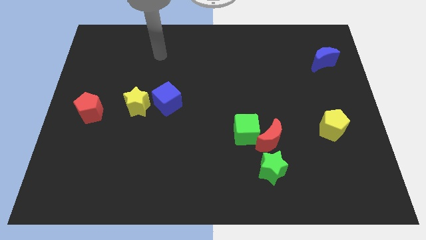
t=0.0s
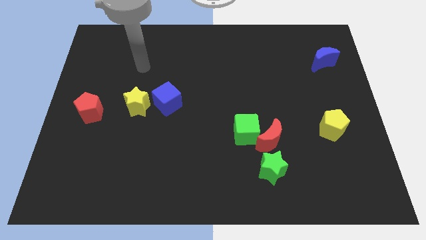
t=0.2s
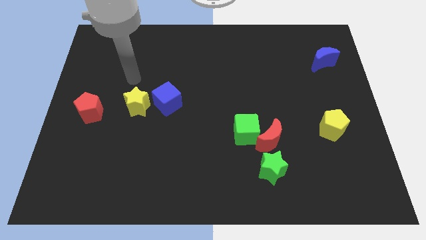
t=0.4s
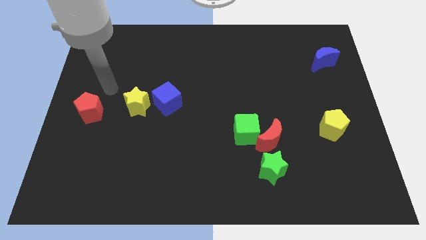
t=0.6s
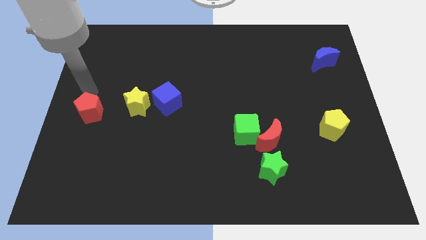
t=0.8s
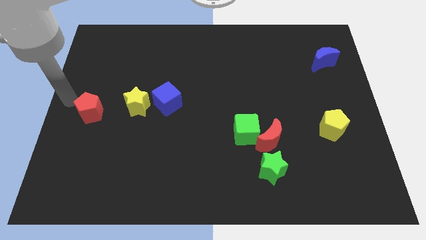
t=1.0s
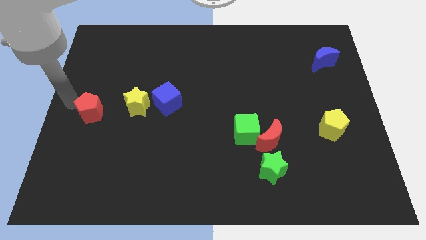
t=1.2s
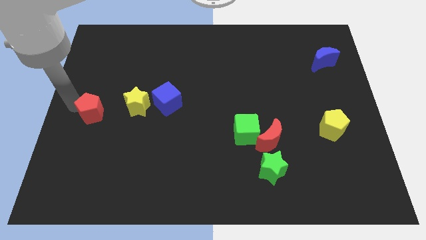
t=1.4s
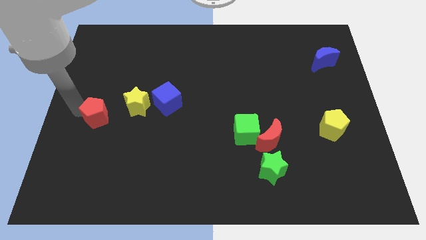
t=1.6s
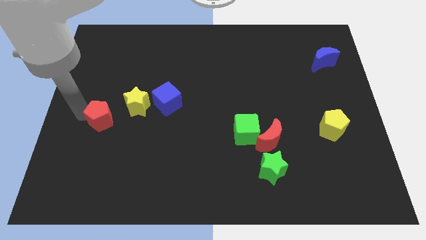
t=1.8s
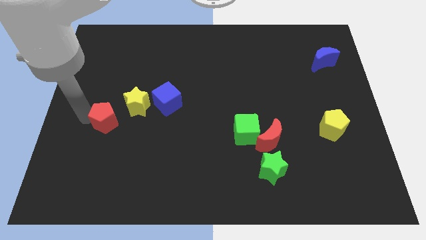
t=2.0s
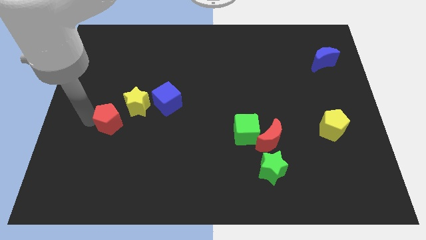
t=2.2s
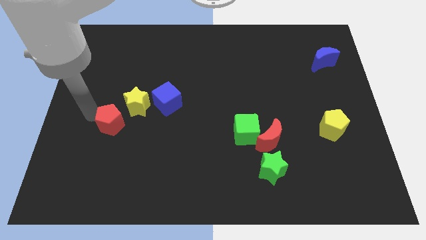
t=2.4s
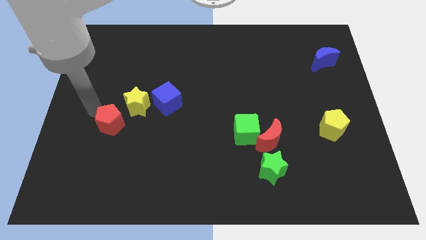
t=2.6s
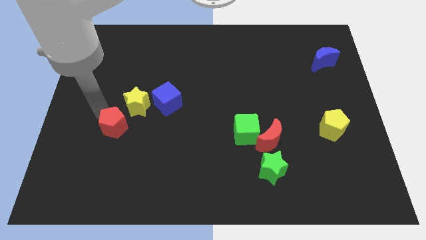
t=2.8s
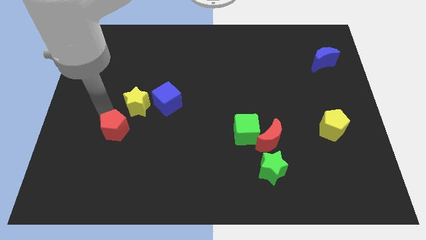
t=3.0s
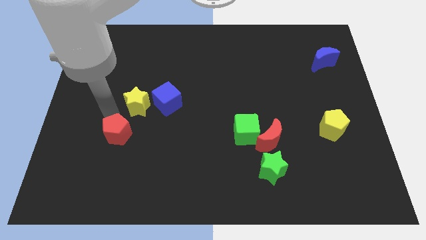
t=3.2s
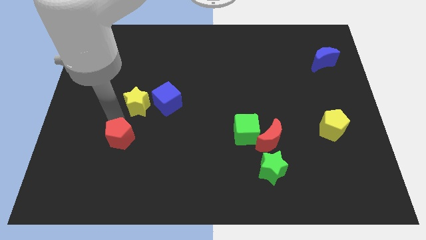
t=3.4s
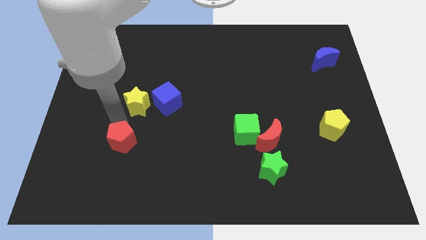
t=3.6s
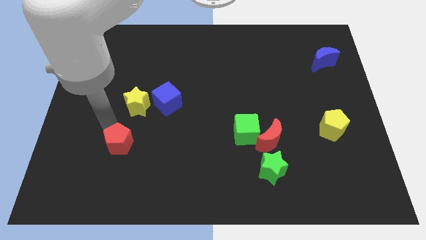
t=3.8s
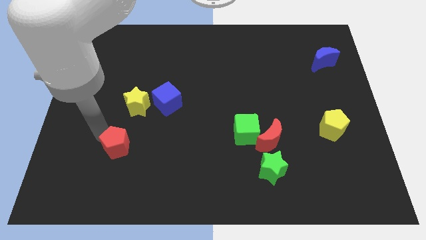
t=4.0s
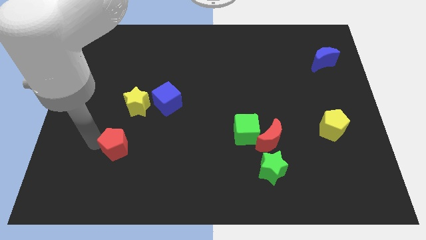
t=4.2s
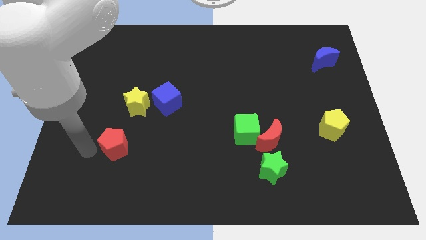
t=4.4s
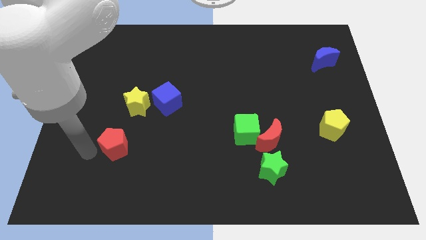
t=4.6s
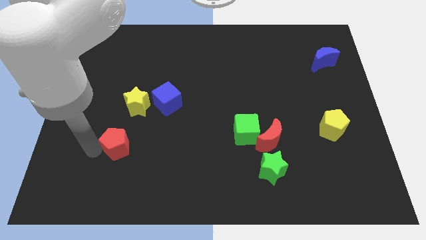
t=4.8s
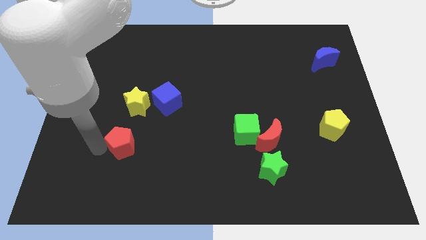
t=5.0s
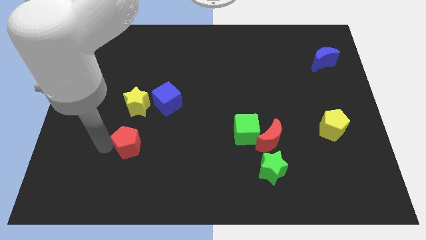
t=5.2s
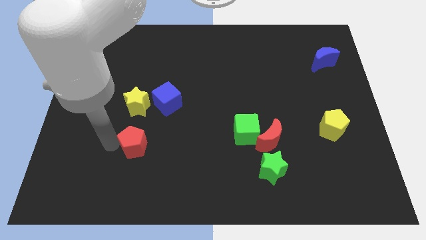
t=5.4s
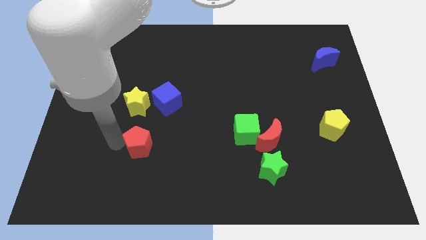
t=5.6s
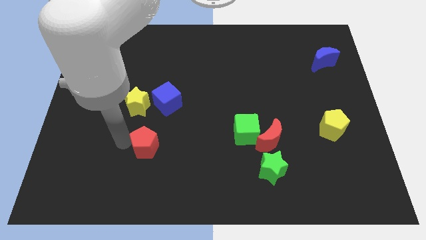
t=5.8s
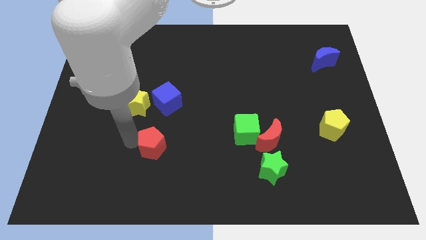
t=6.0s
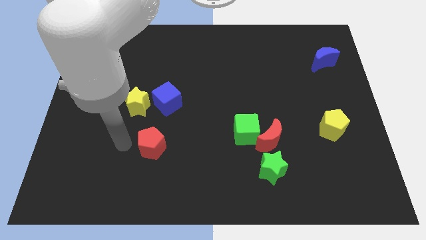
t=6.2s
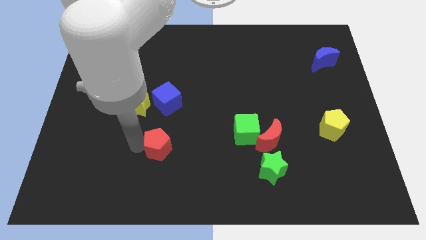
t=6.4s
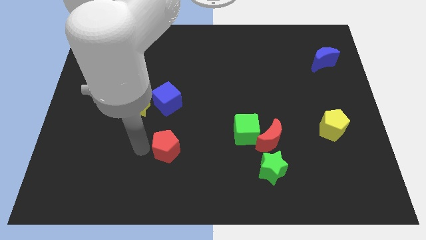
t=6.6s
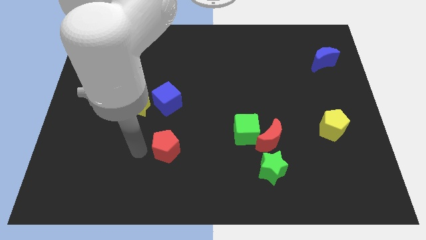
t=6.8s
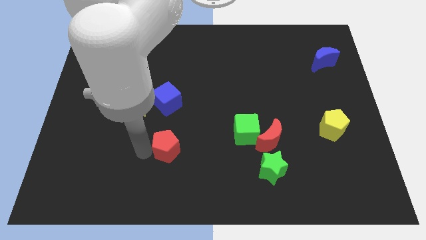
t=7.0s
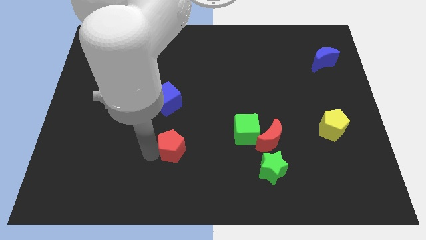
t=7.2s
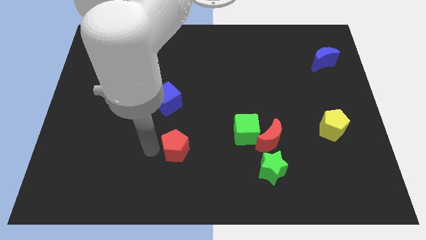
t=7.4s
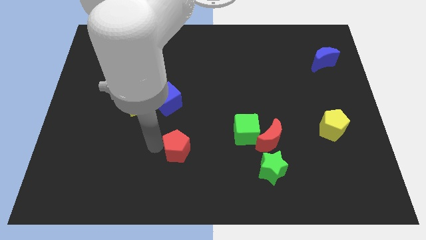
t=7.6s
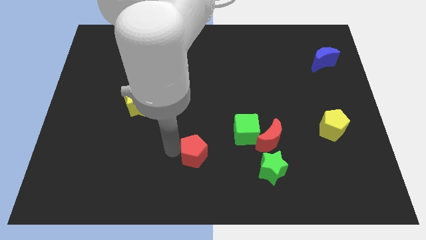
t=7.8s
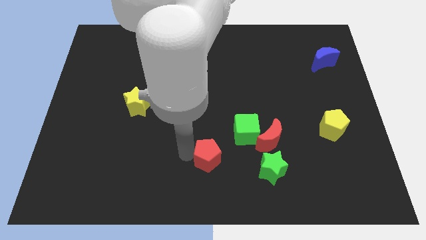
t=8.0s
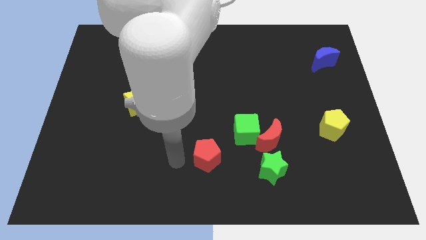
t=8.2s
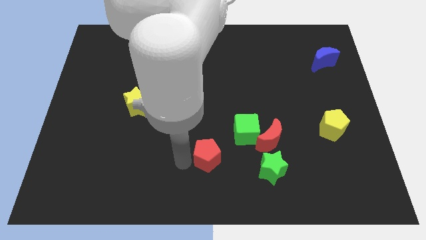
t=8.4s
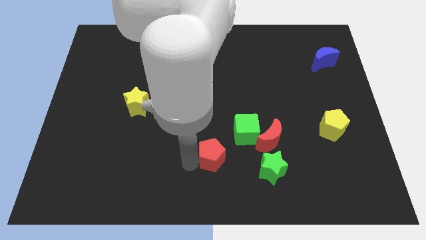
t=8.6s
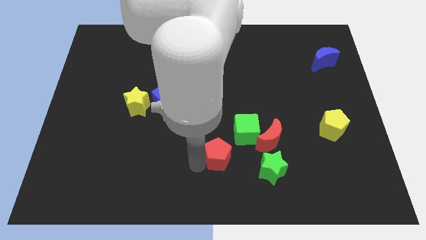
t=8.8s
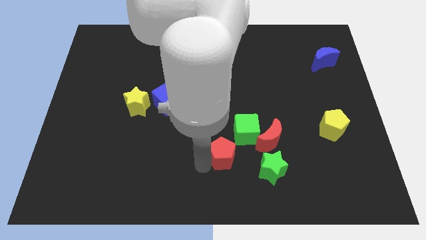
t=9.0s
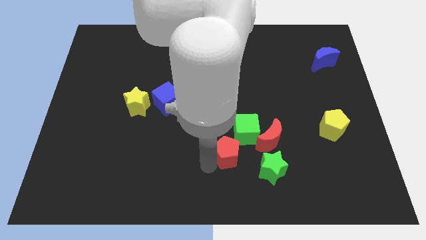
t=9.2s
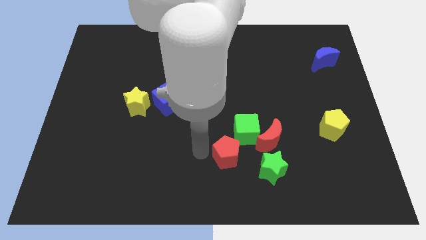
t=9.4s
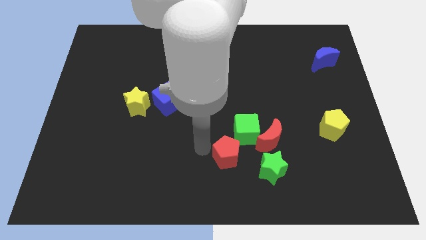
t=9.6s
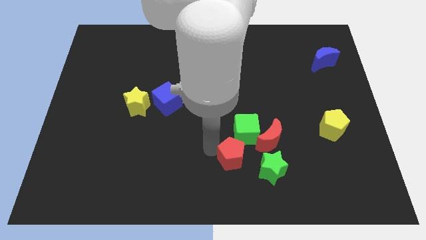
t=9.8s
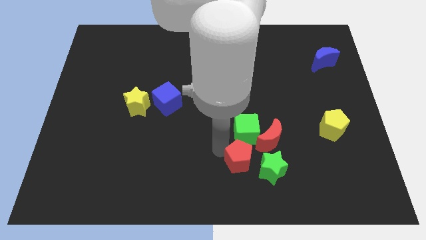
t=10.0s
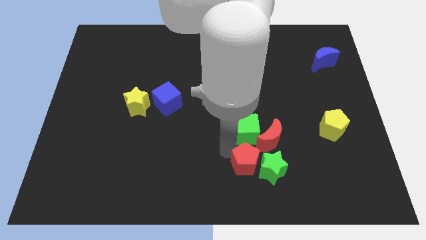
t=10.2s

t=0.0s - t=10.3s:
push the red pentagon next to the green star

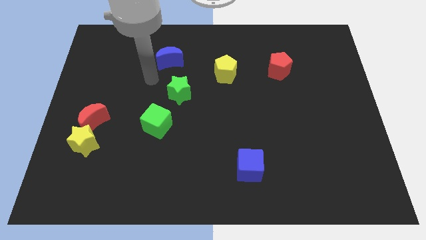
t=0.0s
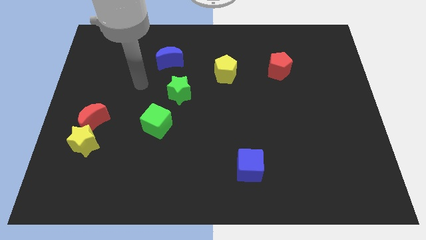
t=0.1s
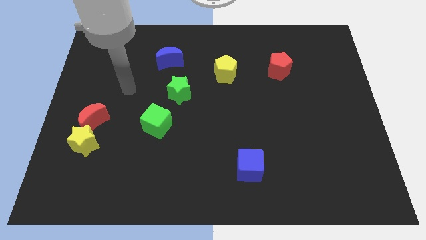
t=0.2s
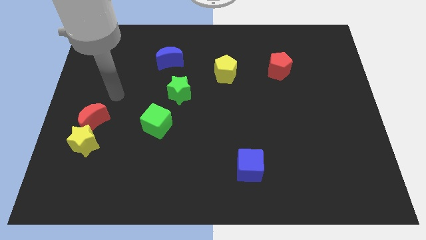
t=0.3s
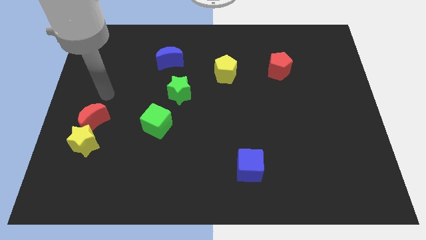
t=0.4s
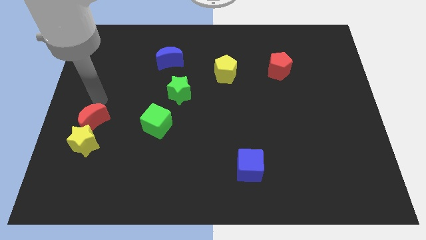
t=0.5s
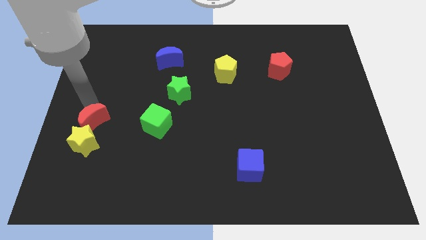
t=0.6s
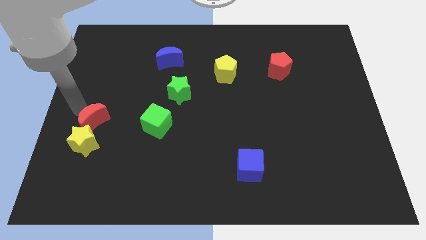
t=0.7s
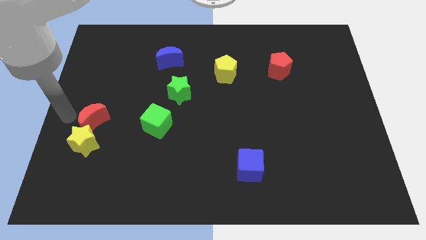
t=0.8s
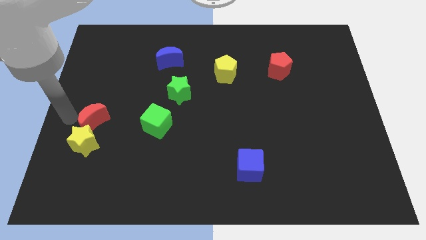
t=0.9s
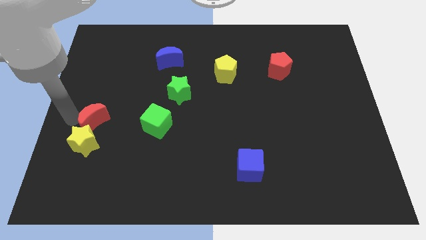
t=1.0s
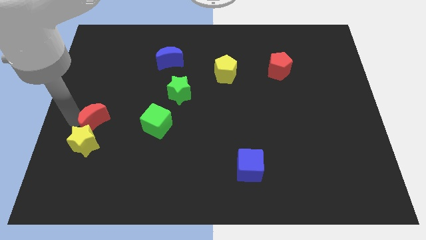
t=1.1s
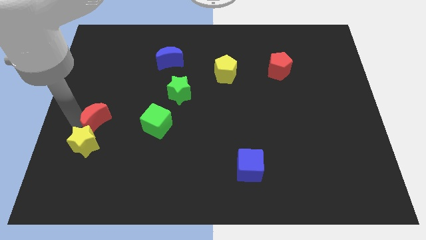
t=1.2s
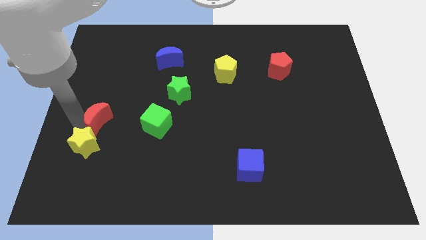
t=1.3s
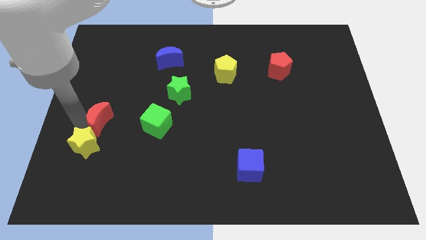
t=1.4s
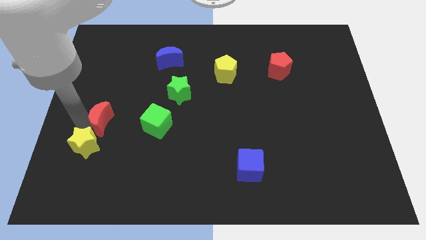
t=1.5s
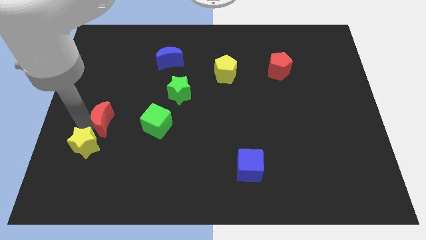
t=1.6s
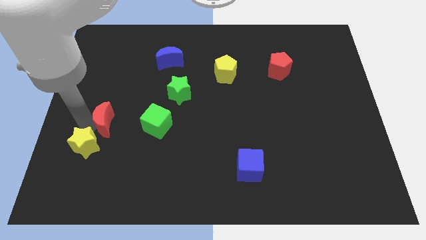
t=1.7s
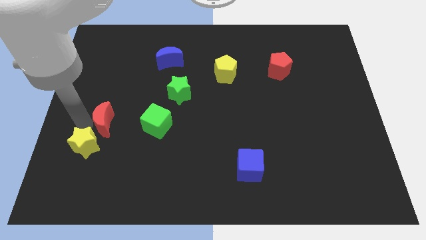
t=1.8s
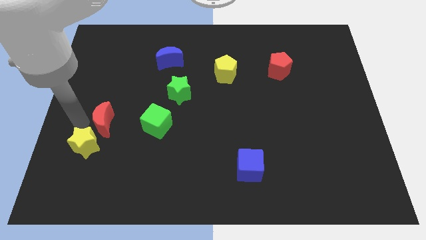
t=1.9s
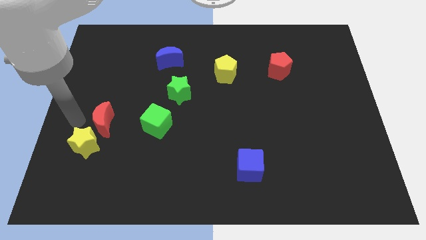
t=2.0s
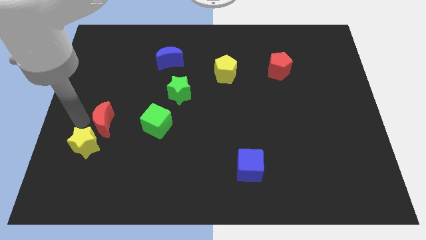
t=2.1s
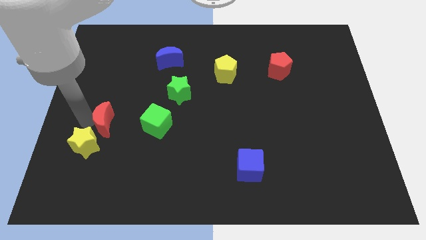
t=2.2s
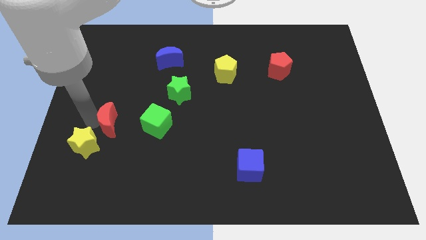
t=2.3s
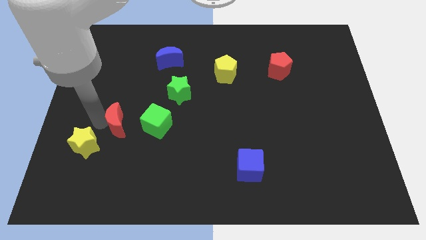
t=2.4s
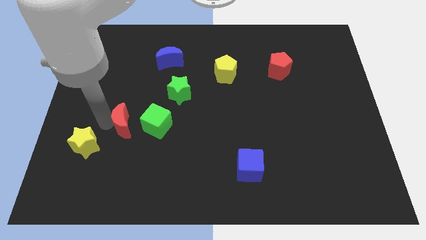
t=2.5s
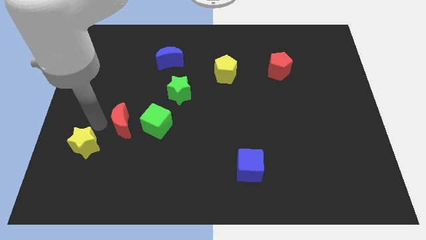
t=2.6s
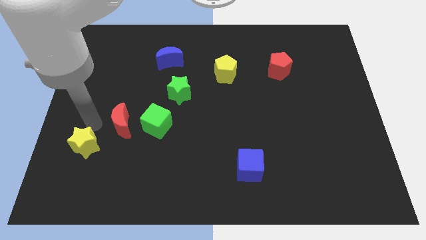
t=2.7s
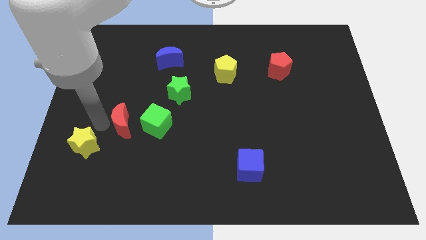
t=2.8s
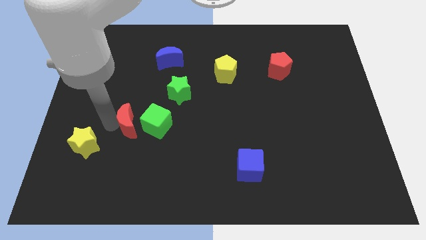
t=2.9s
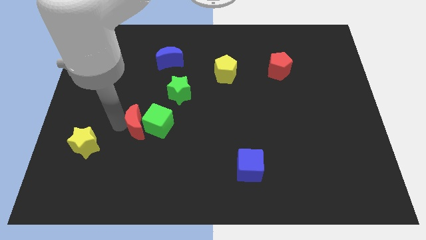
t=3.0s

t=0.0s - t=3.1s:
put the red moon to the green cube
